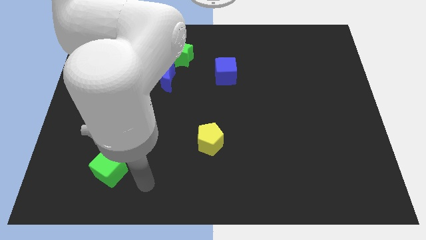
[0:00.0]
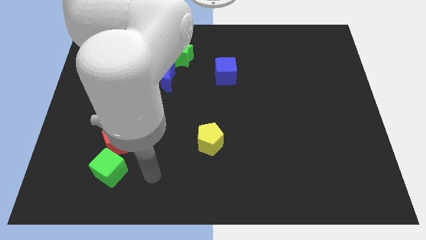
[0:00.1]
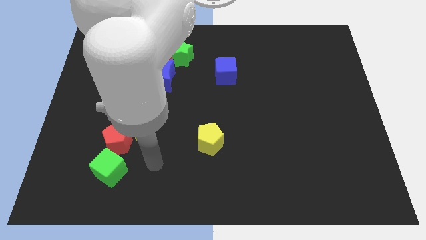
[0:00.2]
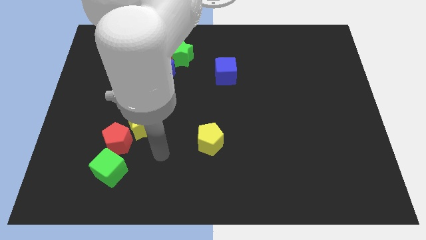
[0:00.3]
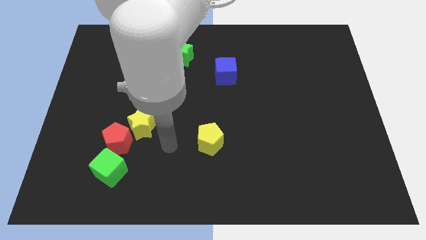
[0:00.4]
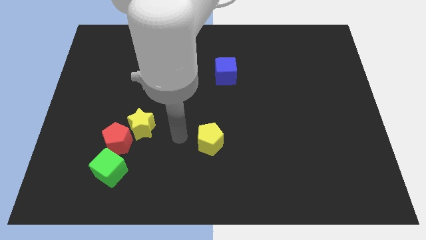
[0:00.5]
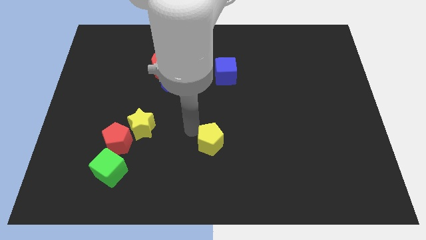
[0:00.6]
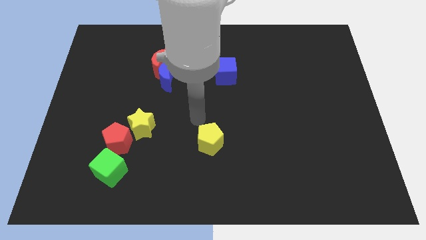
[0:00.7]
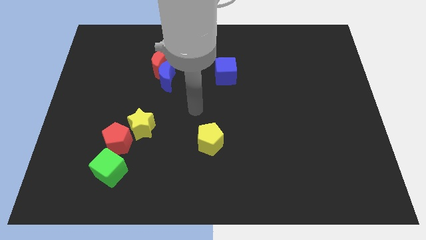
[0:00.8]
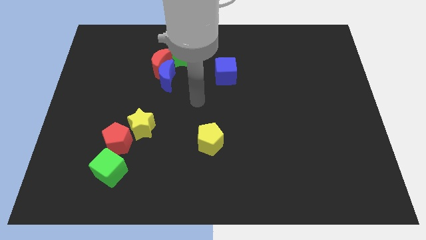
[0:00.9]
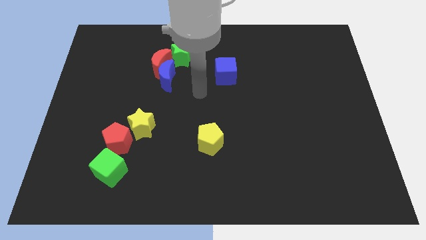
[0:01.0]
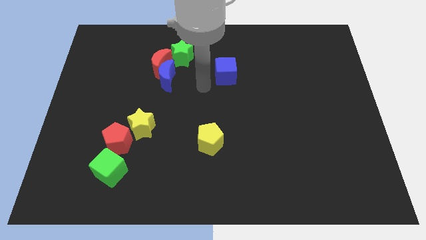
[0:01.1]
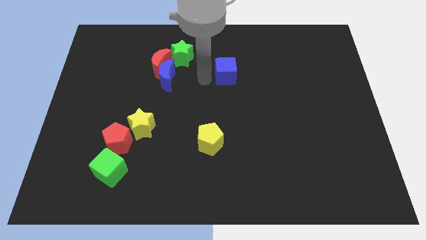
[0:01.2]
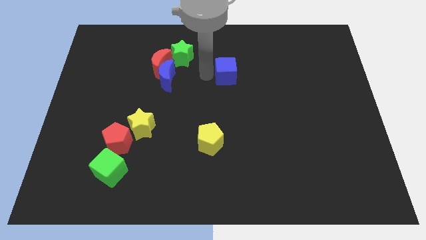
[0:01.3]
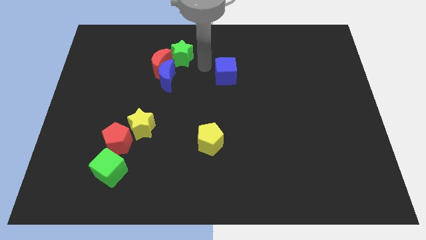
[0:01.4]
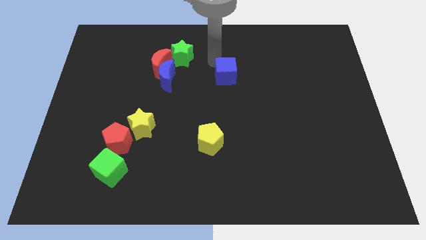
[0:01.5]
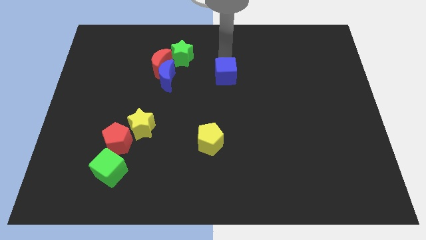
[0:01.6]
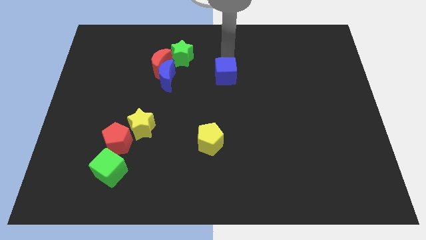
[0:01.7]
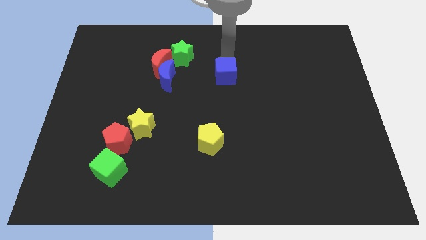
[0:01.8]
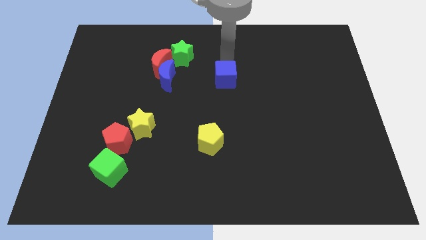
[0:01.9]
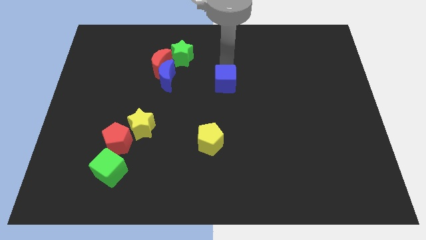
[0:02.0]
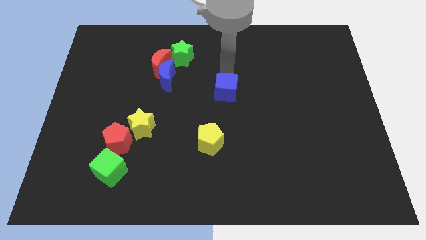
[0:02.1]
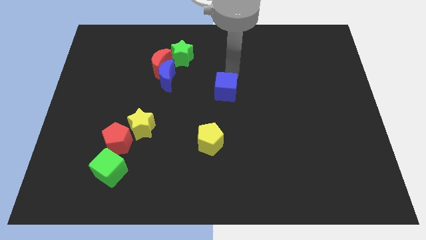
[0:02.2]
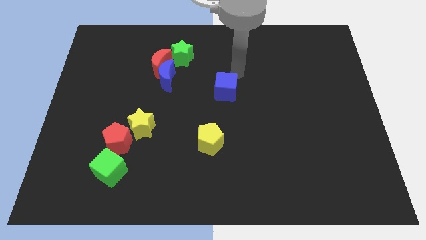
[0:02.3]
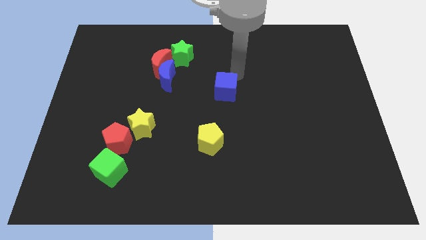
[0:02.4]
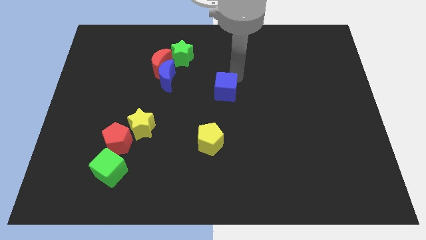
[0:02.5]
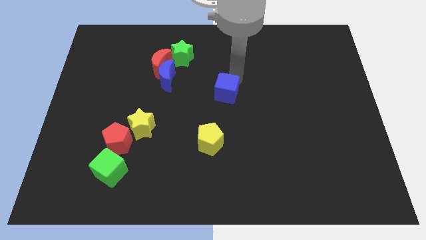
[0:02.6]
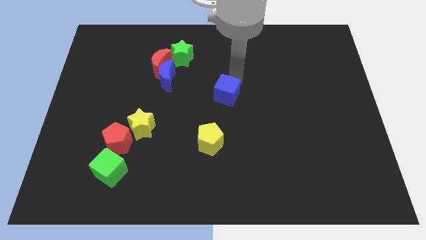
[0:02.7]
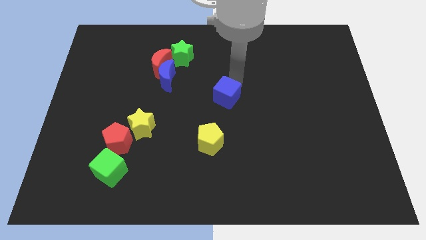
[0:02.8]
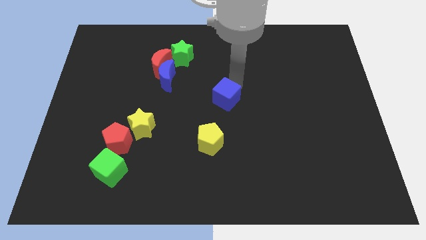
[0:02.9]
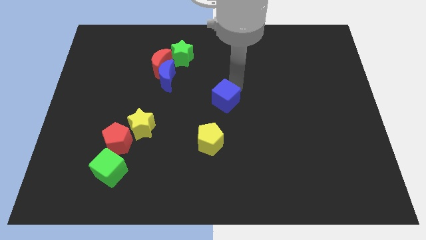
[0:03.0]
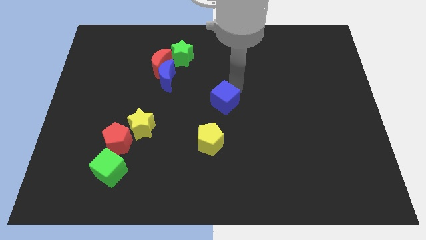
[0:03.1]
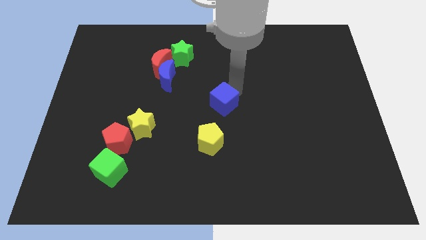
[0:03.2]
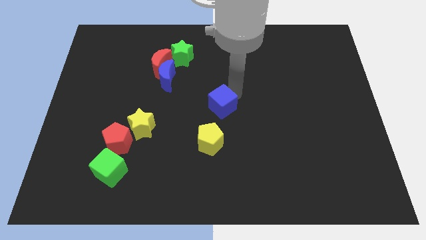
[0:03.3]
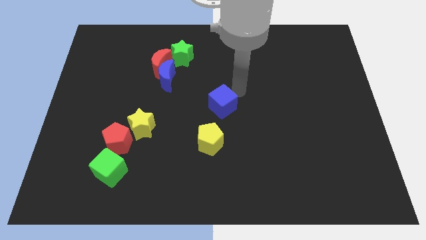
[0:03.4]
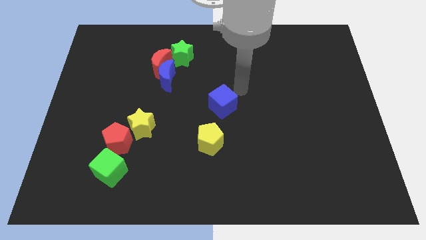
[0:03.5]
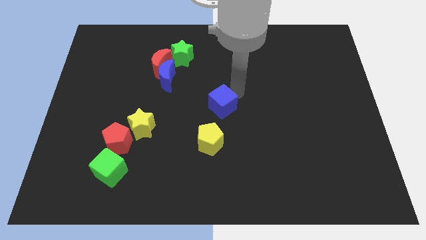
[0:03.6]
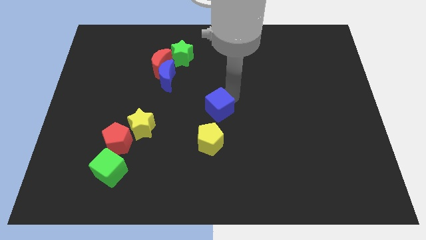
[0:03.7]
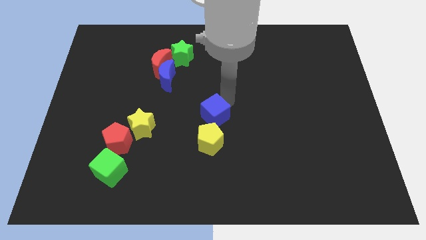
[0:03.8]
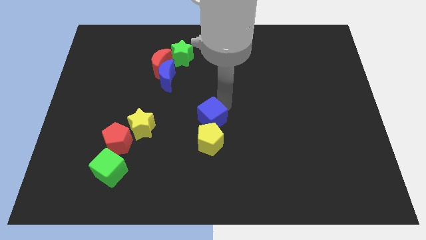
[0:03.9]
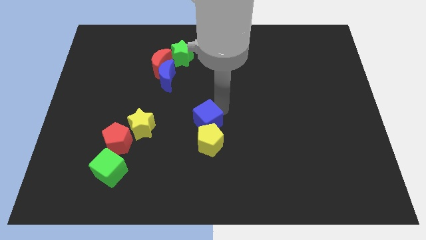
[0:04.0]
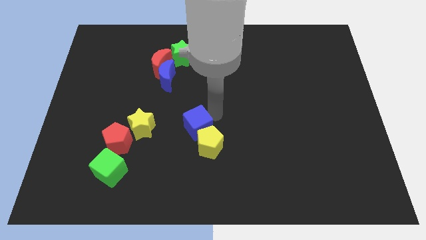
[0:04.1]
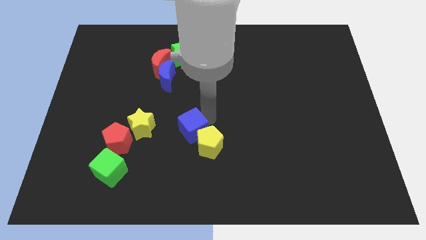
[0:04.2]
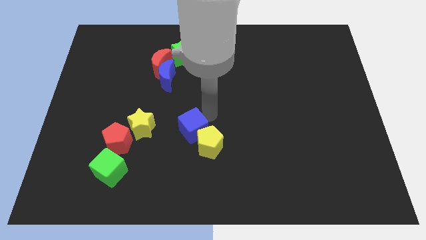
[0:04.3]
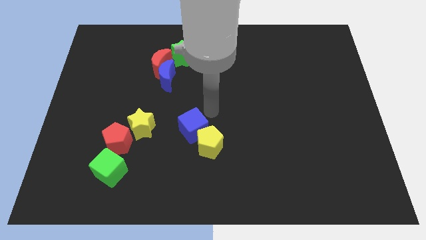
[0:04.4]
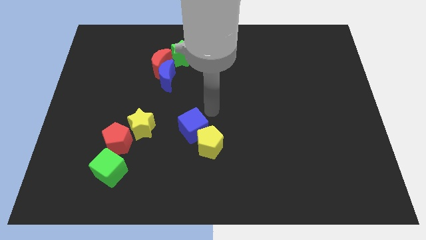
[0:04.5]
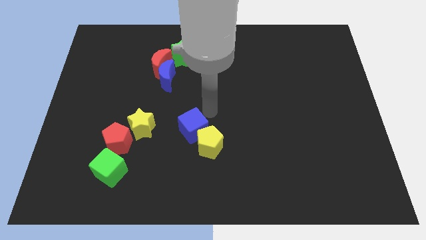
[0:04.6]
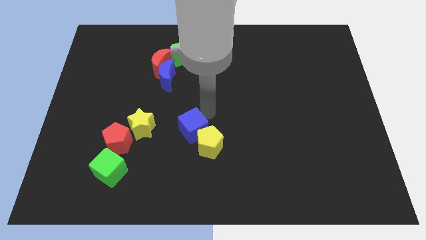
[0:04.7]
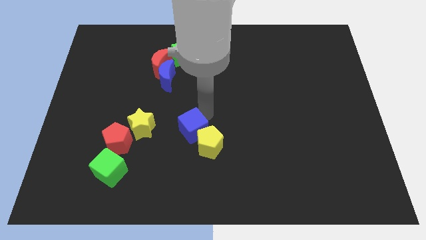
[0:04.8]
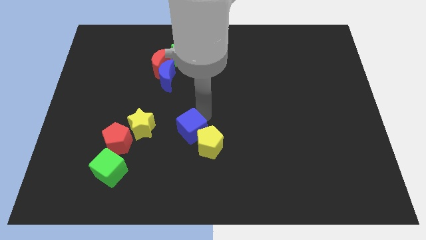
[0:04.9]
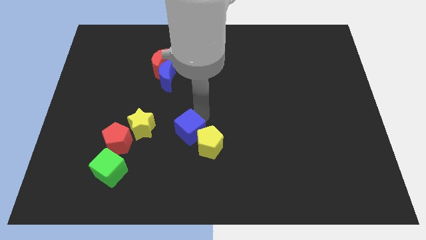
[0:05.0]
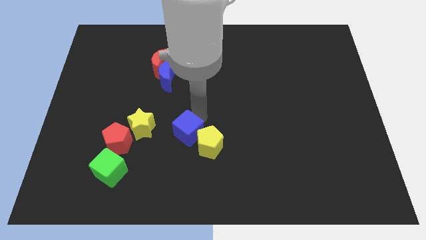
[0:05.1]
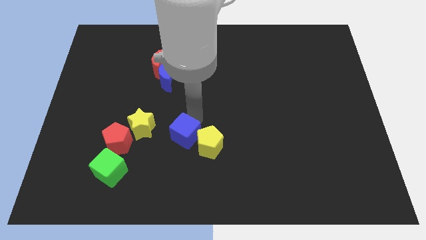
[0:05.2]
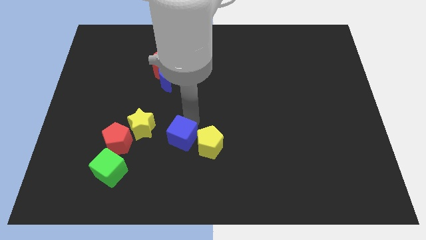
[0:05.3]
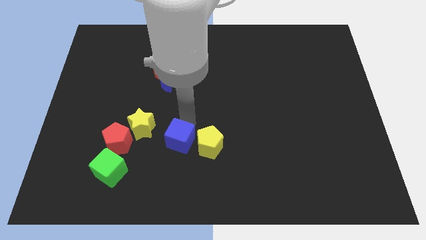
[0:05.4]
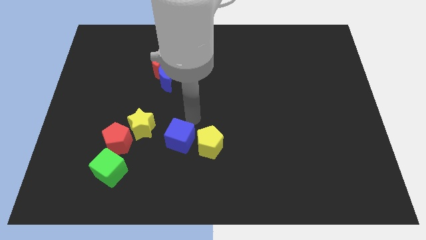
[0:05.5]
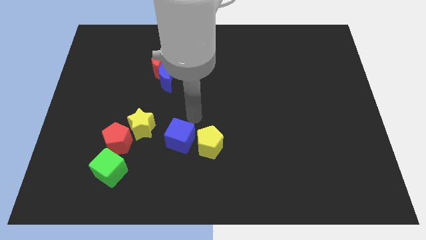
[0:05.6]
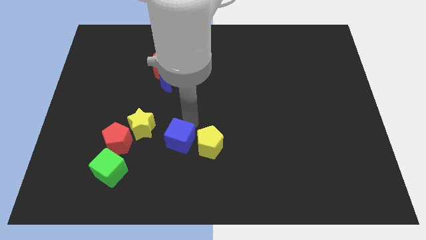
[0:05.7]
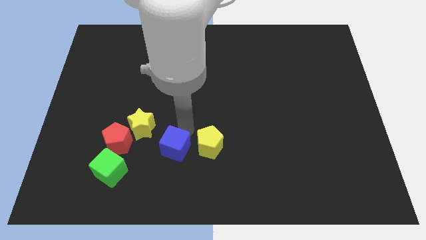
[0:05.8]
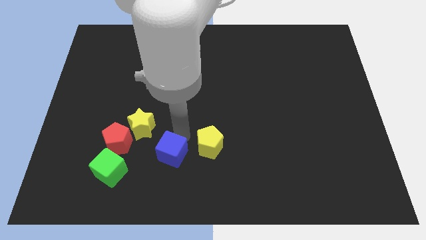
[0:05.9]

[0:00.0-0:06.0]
push the blue cube to the right of the green cube

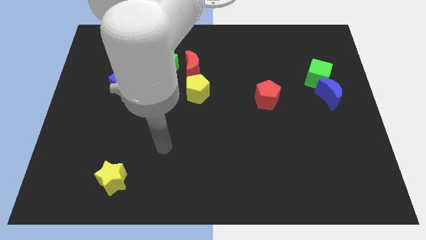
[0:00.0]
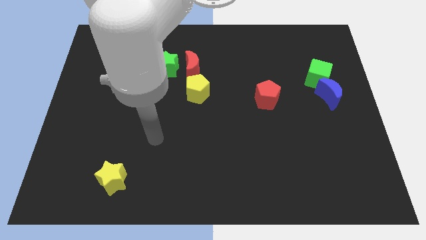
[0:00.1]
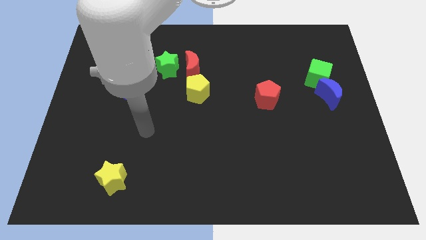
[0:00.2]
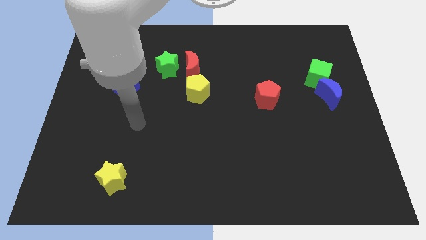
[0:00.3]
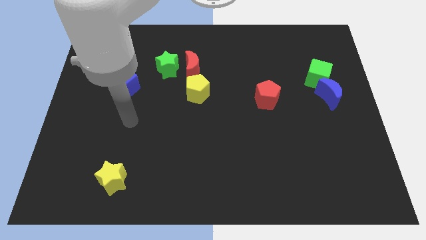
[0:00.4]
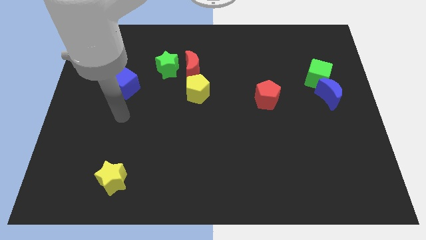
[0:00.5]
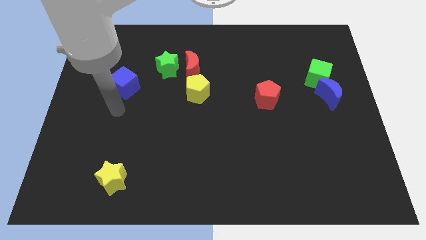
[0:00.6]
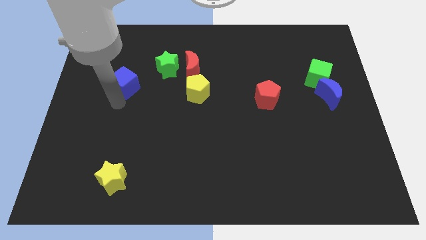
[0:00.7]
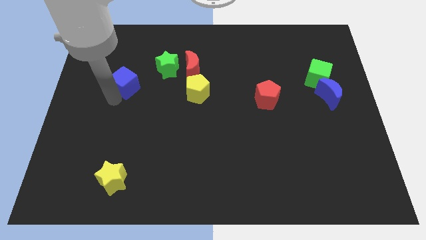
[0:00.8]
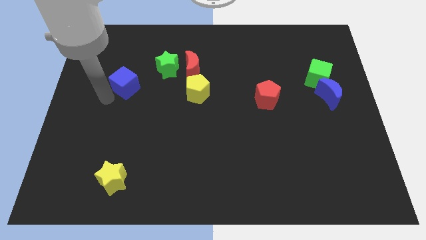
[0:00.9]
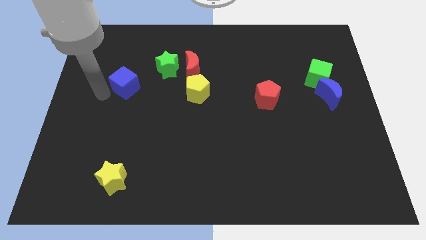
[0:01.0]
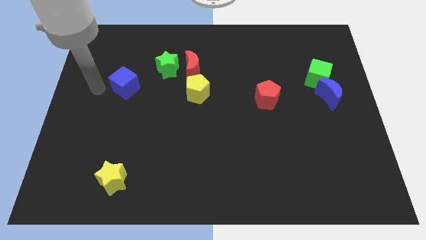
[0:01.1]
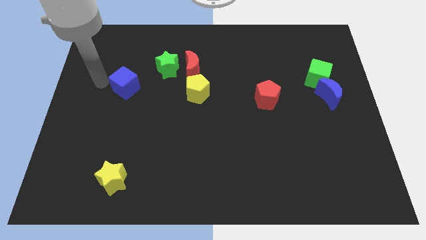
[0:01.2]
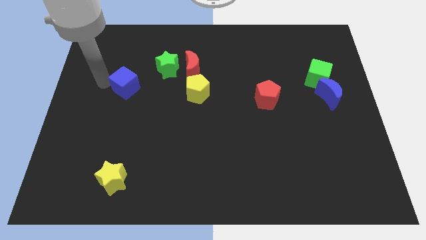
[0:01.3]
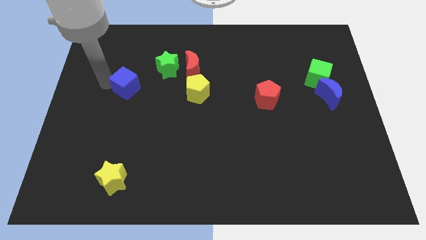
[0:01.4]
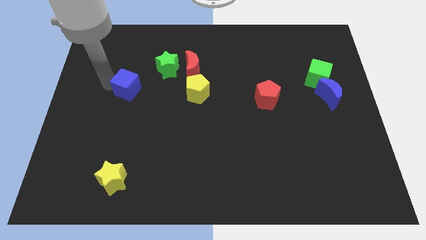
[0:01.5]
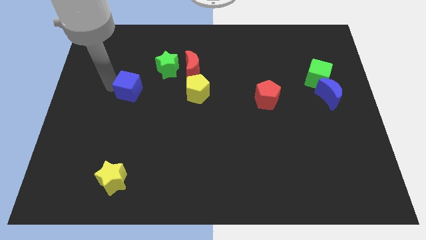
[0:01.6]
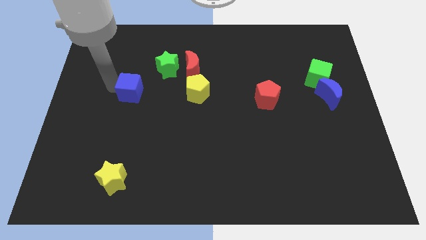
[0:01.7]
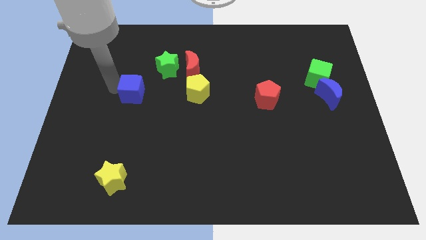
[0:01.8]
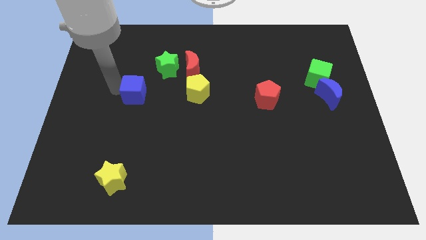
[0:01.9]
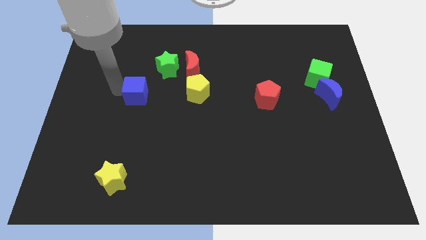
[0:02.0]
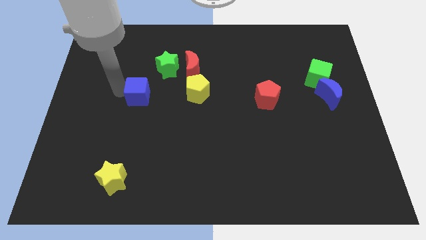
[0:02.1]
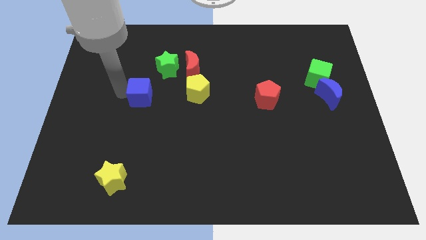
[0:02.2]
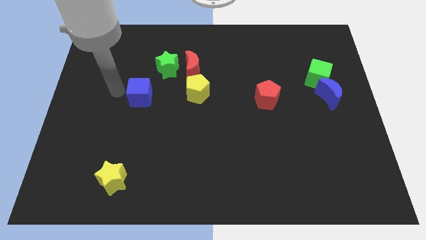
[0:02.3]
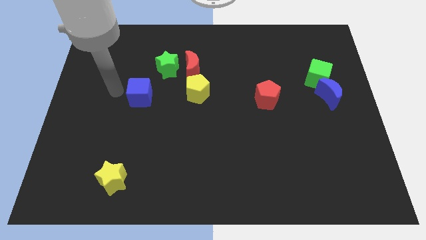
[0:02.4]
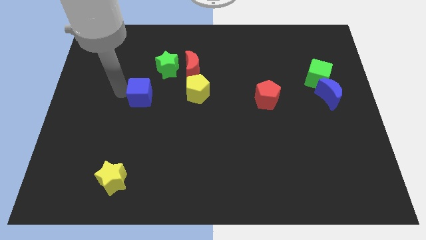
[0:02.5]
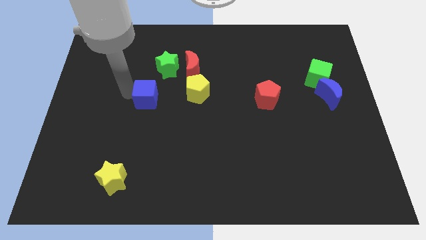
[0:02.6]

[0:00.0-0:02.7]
move the blue cube to the bottom of the green star

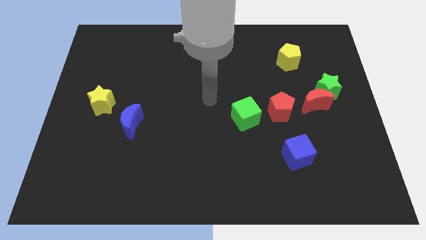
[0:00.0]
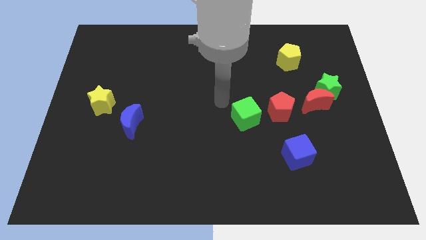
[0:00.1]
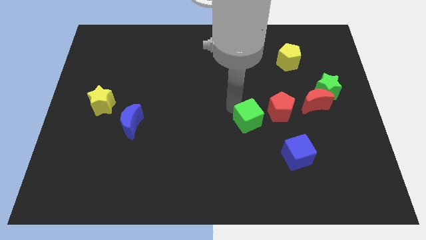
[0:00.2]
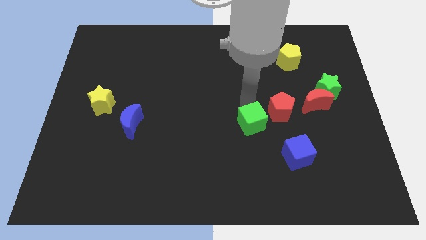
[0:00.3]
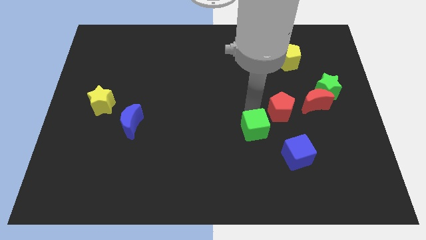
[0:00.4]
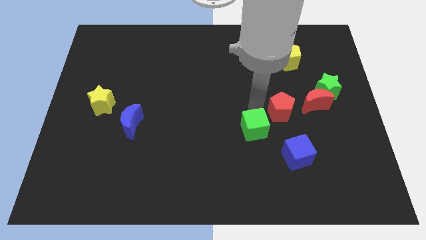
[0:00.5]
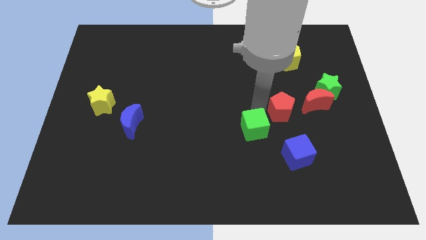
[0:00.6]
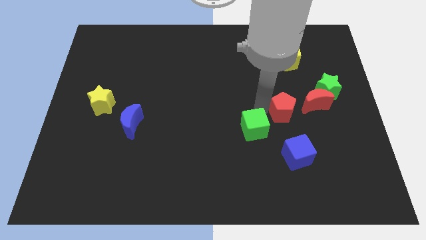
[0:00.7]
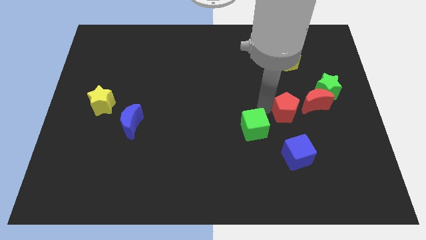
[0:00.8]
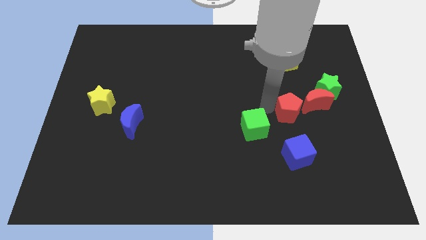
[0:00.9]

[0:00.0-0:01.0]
push the red pentagon to the bottom left side of the green star
